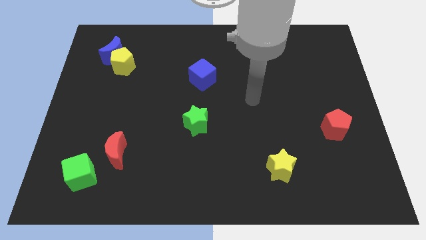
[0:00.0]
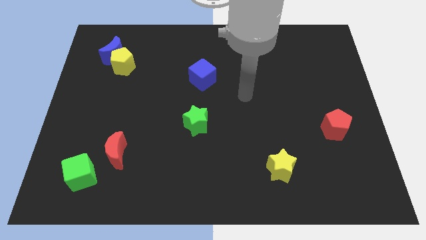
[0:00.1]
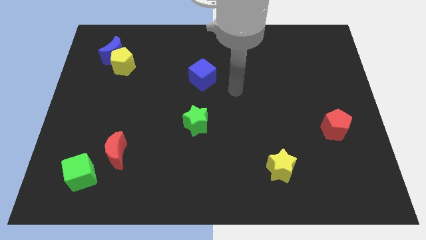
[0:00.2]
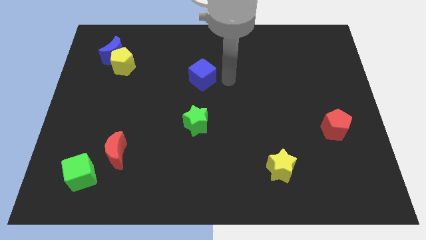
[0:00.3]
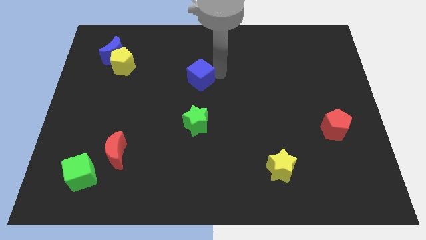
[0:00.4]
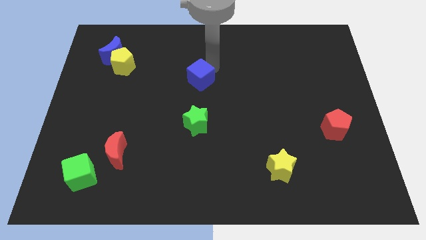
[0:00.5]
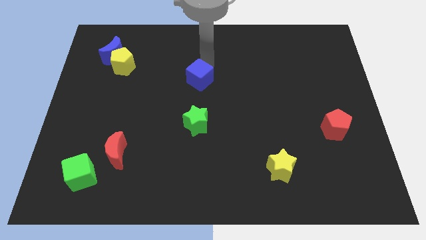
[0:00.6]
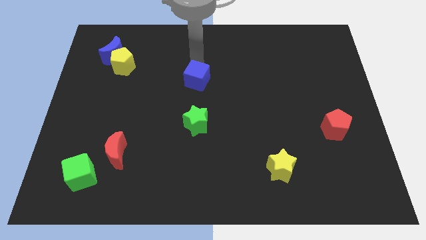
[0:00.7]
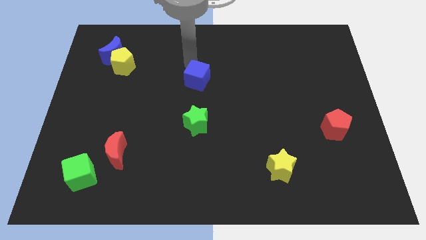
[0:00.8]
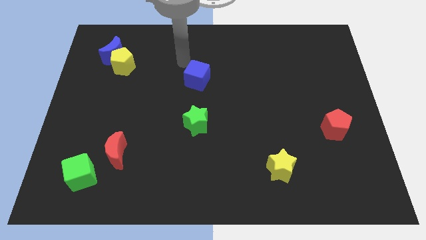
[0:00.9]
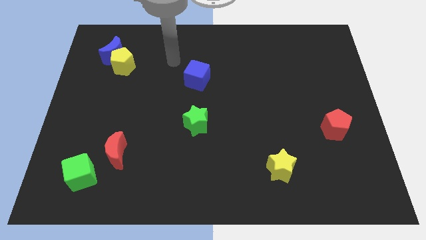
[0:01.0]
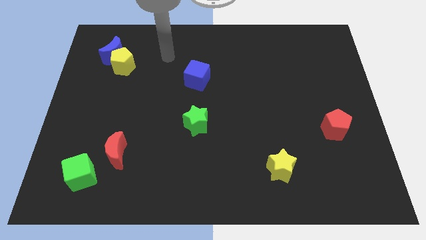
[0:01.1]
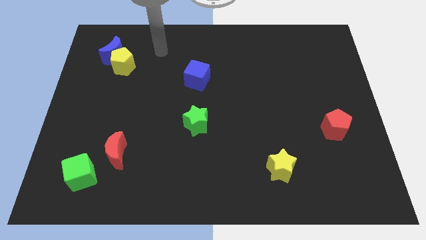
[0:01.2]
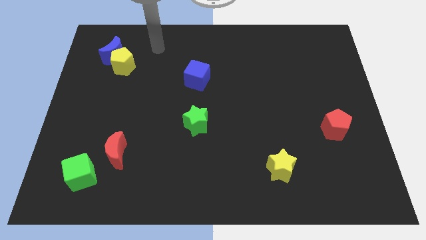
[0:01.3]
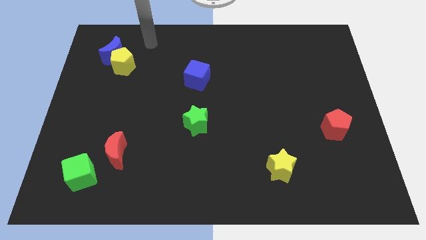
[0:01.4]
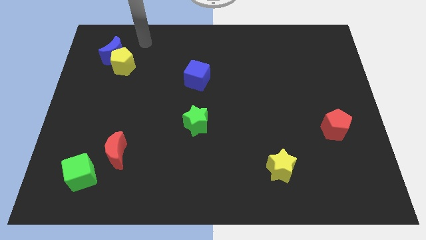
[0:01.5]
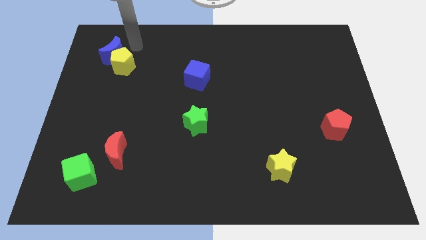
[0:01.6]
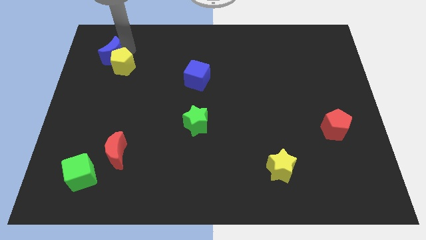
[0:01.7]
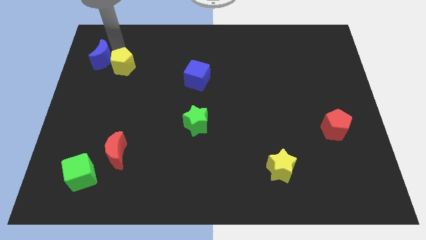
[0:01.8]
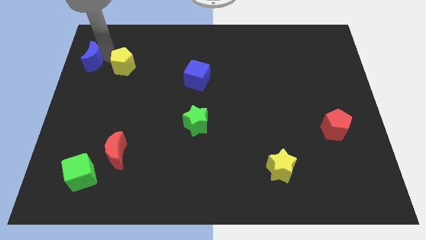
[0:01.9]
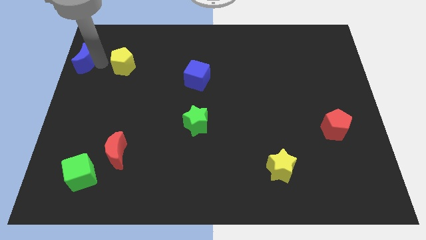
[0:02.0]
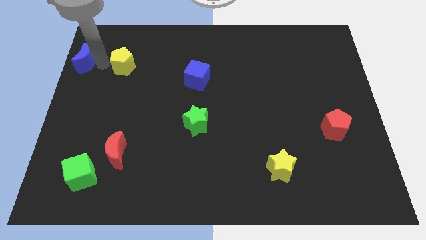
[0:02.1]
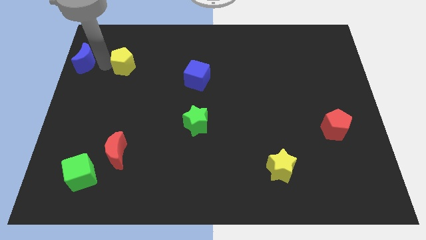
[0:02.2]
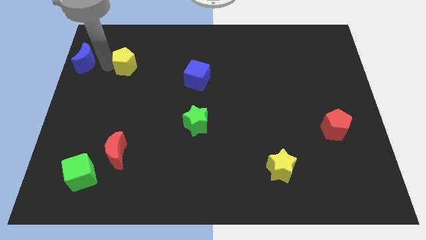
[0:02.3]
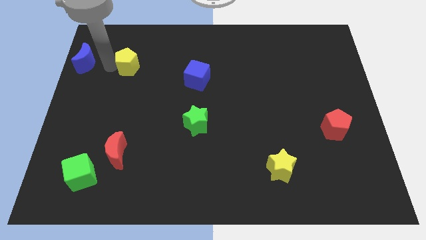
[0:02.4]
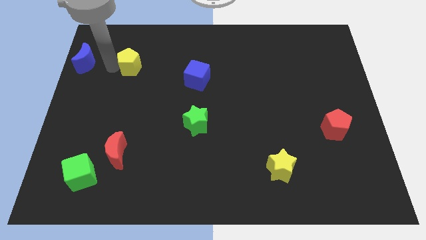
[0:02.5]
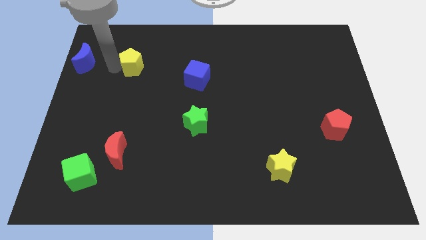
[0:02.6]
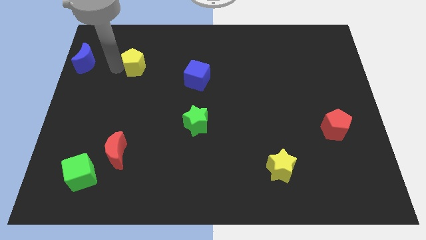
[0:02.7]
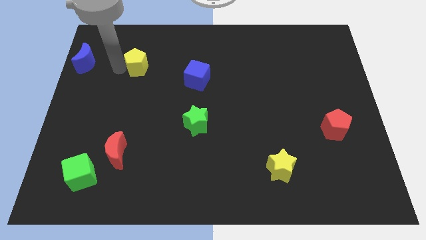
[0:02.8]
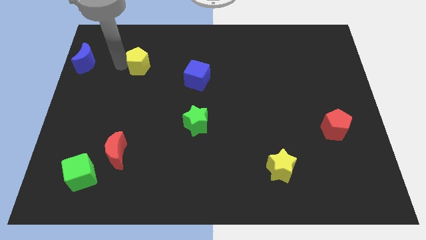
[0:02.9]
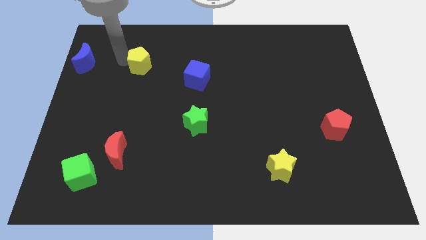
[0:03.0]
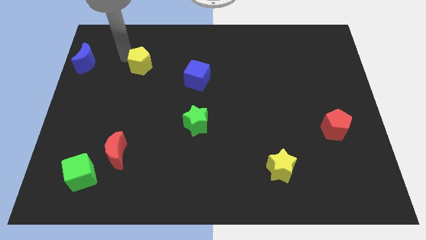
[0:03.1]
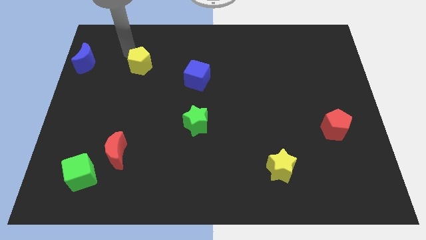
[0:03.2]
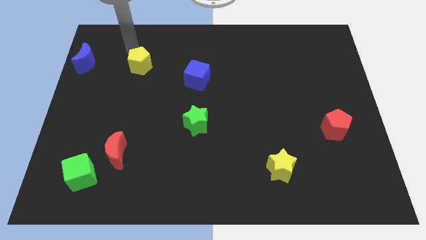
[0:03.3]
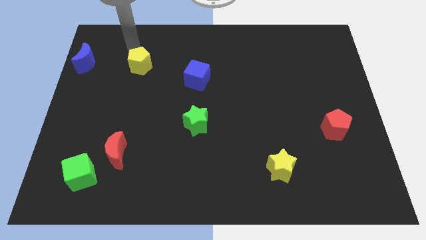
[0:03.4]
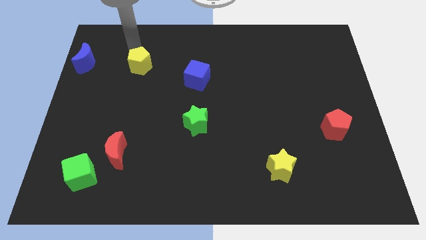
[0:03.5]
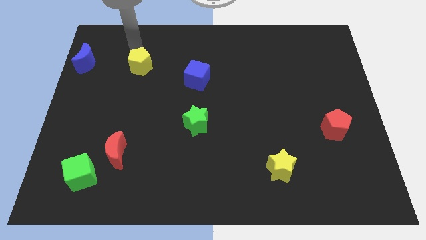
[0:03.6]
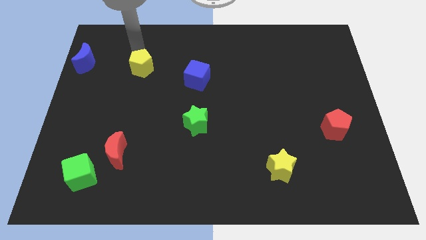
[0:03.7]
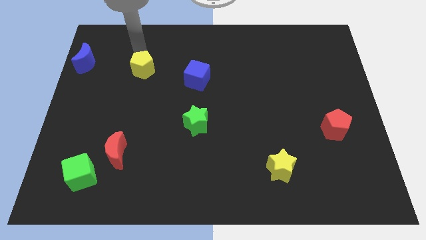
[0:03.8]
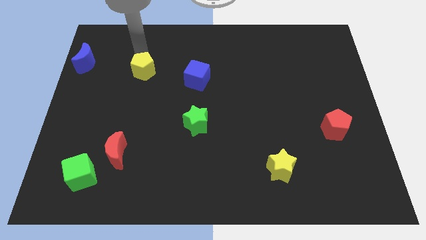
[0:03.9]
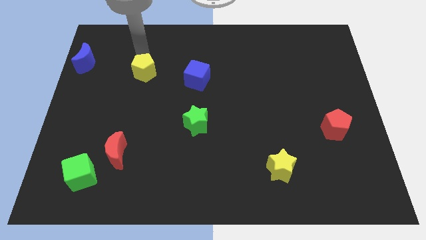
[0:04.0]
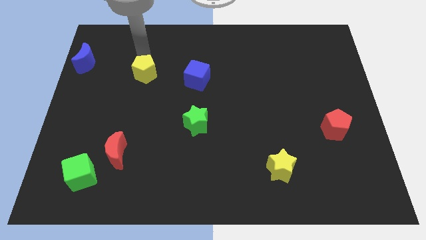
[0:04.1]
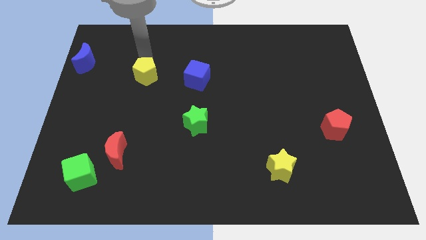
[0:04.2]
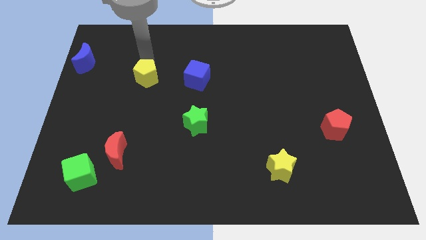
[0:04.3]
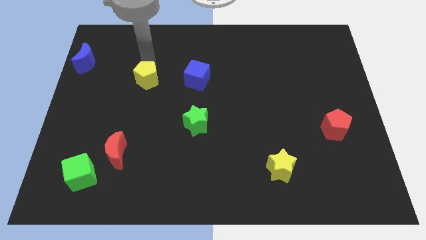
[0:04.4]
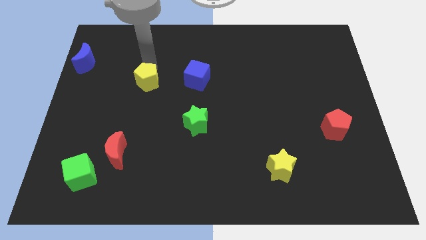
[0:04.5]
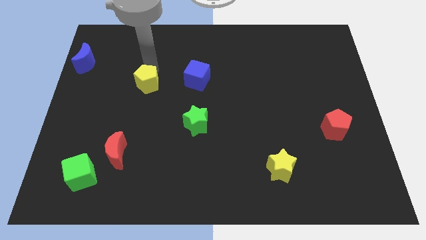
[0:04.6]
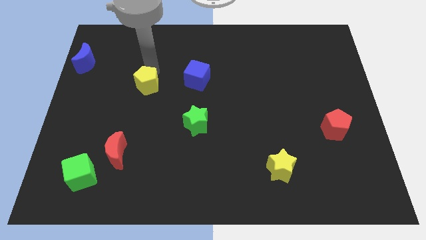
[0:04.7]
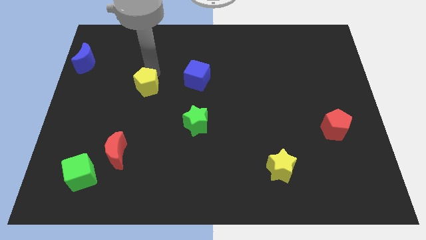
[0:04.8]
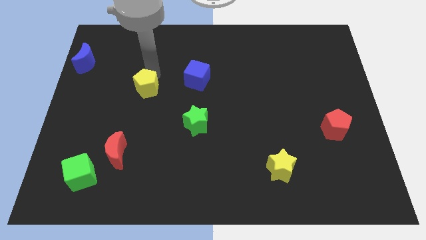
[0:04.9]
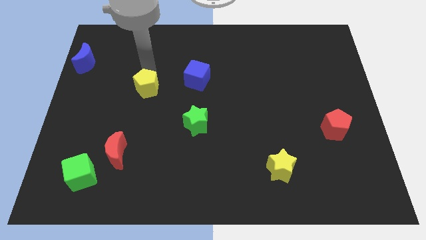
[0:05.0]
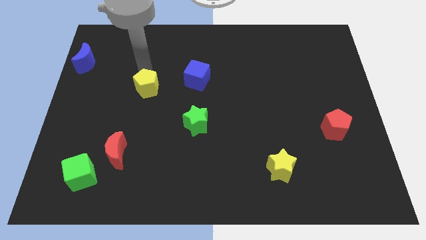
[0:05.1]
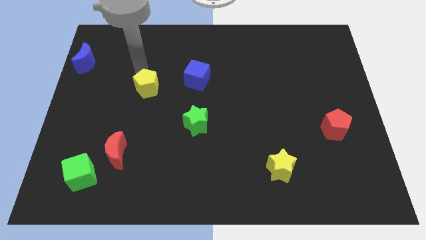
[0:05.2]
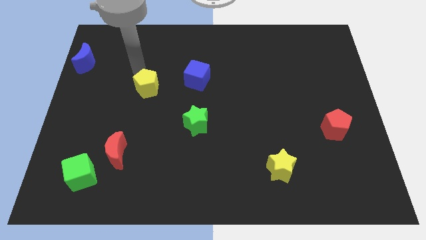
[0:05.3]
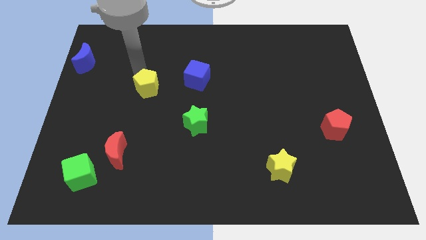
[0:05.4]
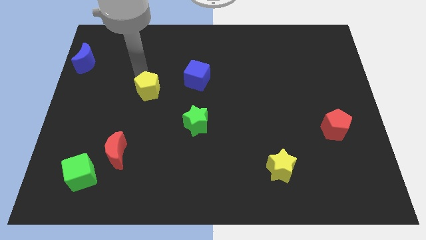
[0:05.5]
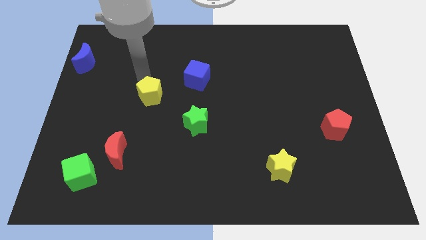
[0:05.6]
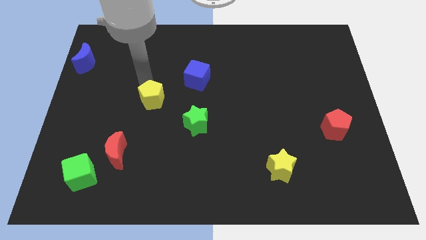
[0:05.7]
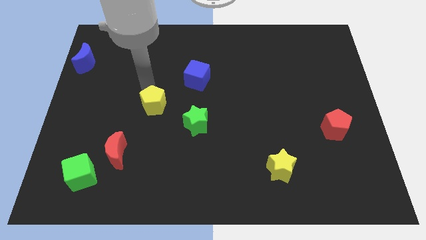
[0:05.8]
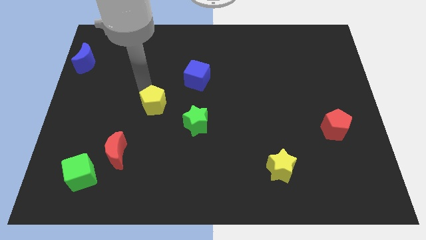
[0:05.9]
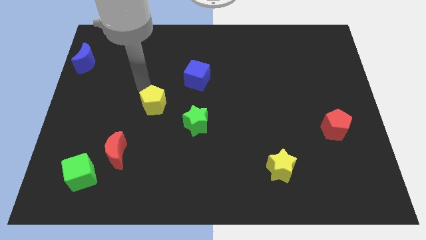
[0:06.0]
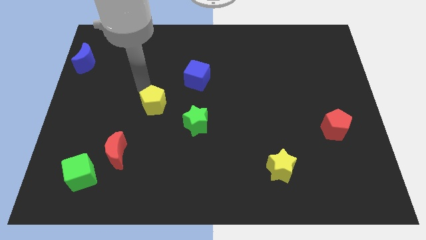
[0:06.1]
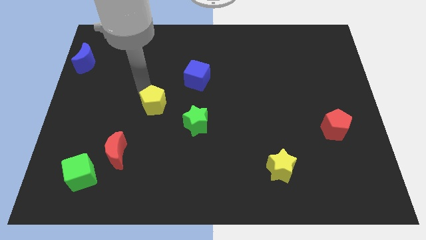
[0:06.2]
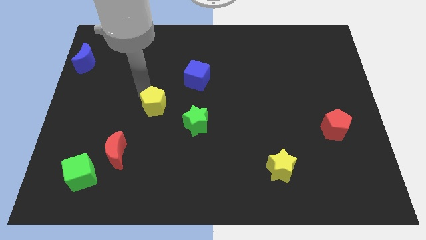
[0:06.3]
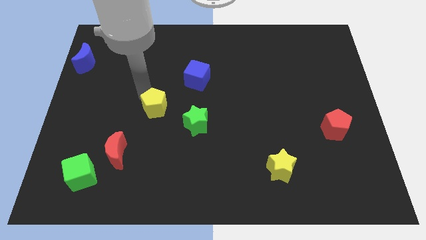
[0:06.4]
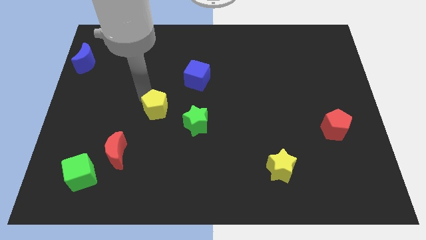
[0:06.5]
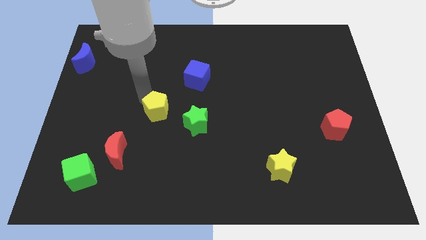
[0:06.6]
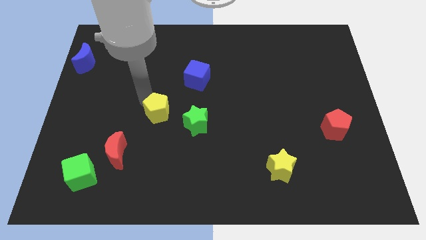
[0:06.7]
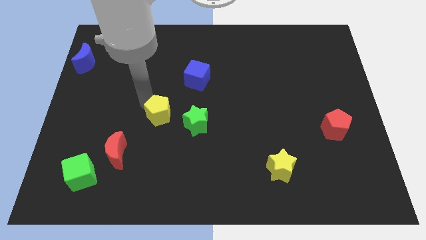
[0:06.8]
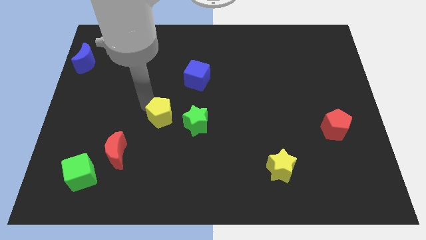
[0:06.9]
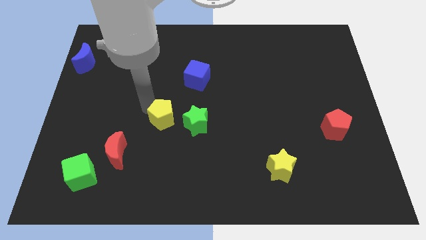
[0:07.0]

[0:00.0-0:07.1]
slide the yellow pentagon down and to the right

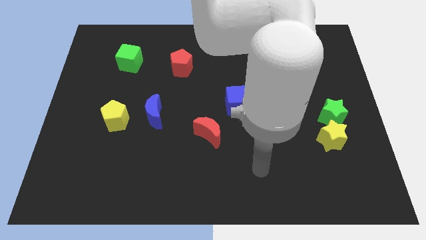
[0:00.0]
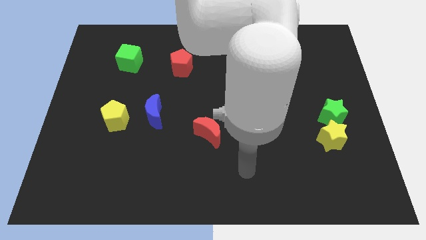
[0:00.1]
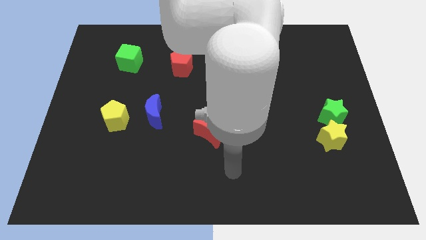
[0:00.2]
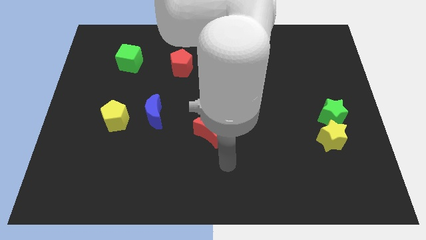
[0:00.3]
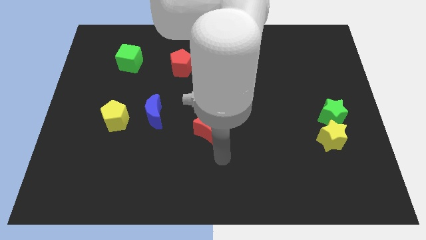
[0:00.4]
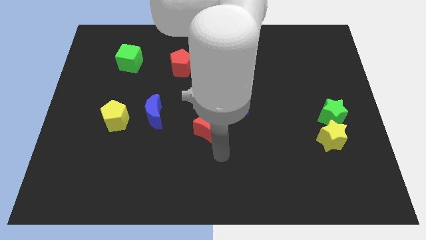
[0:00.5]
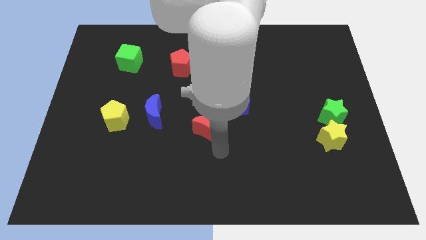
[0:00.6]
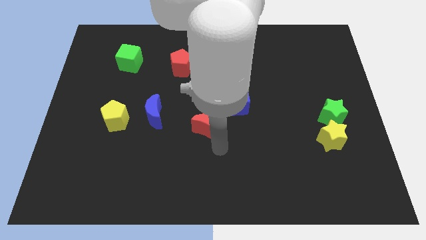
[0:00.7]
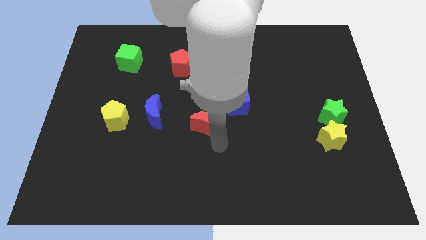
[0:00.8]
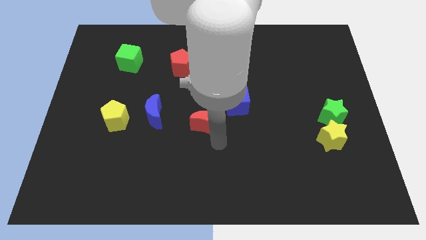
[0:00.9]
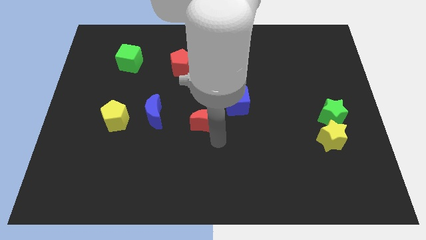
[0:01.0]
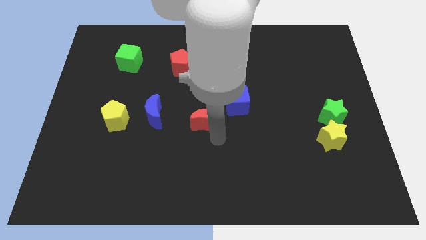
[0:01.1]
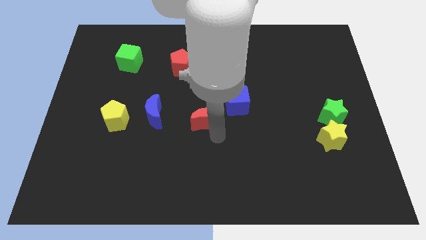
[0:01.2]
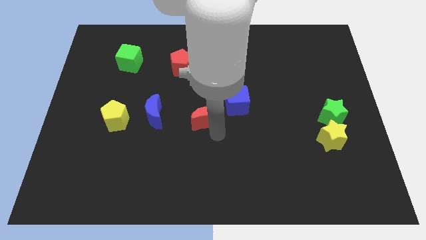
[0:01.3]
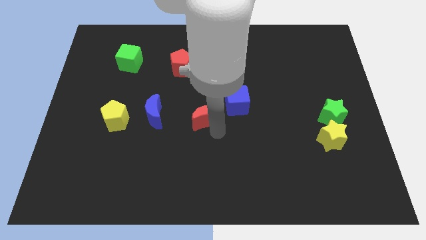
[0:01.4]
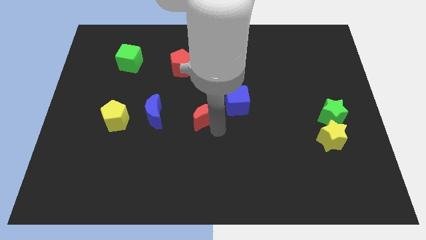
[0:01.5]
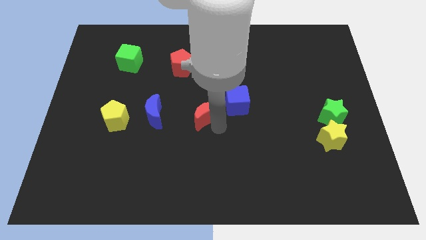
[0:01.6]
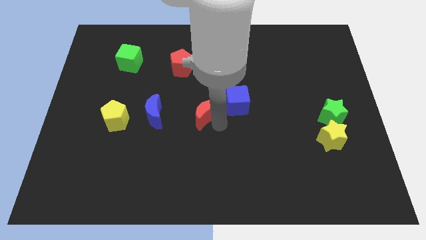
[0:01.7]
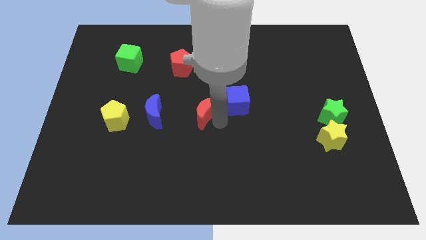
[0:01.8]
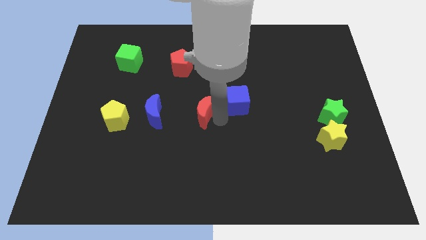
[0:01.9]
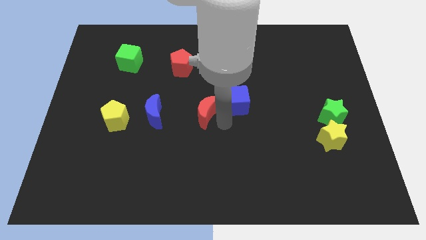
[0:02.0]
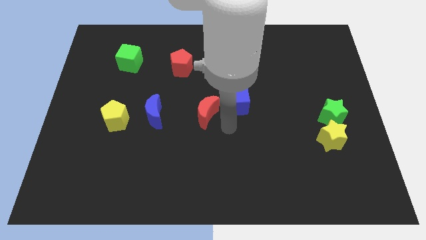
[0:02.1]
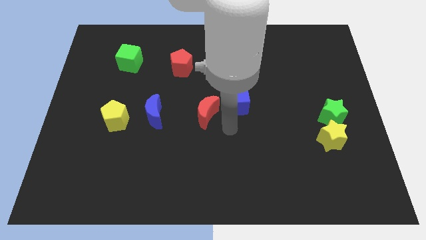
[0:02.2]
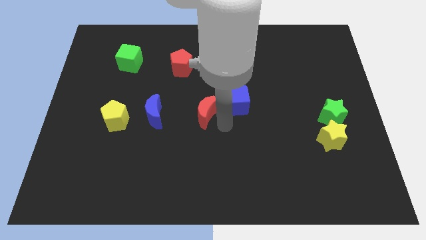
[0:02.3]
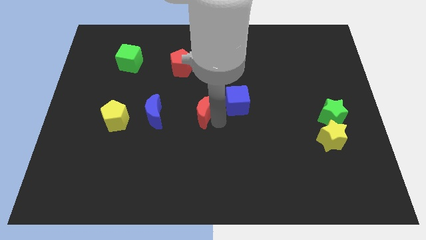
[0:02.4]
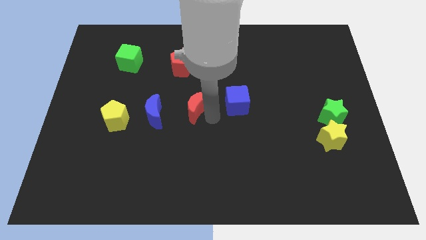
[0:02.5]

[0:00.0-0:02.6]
slightly slide the red moon up and left
